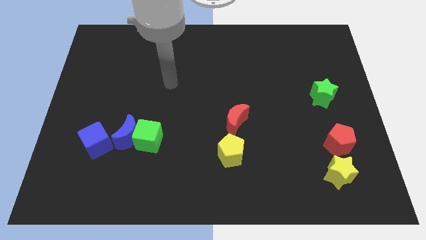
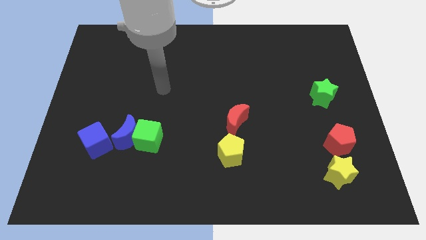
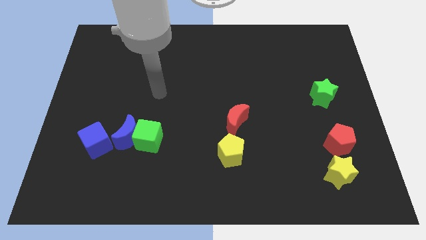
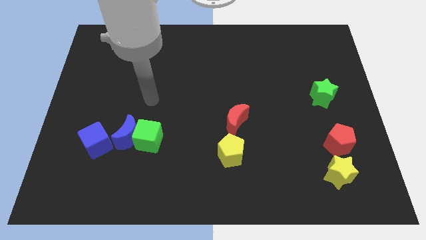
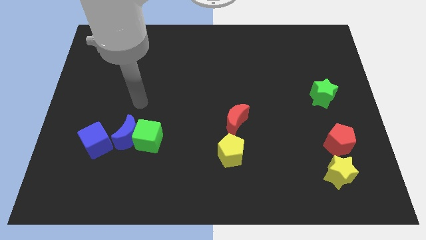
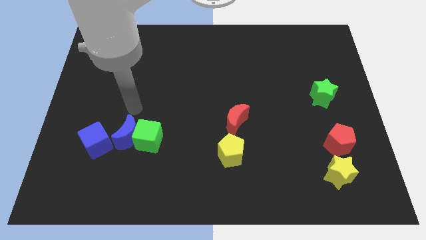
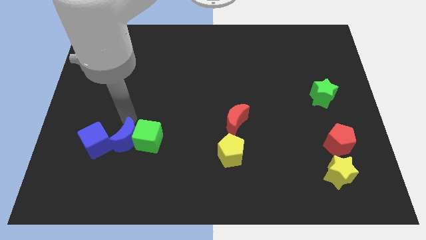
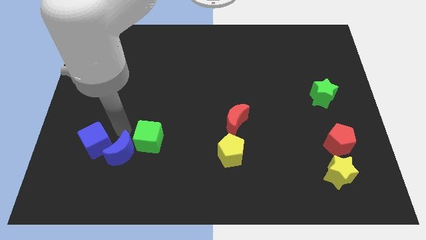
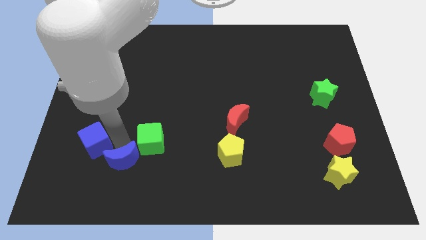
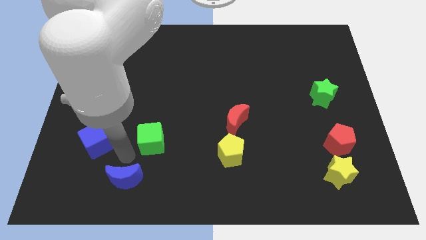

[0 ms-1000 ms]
move the green cube away from the blue moon

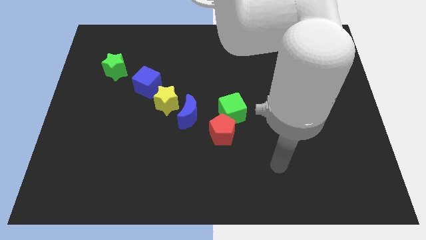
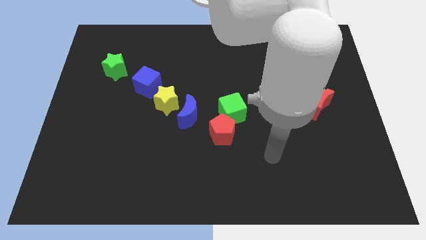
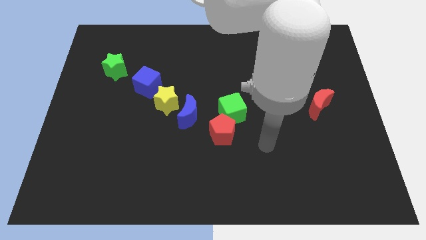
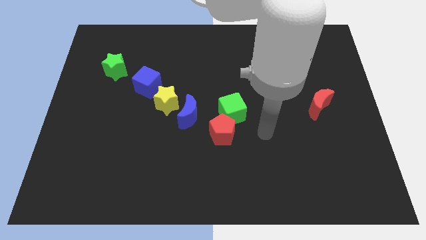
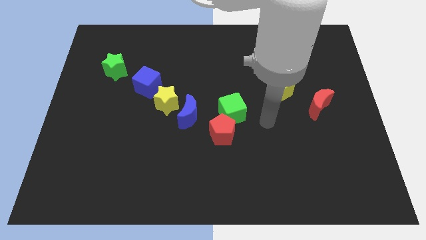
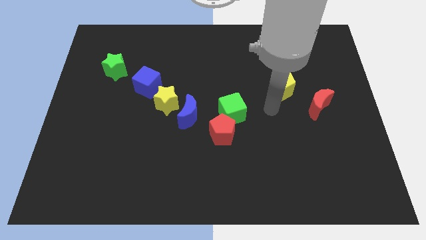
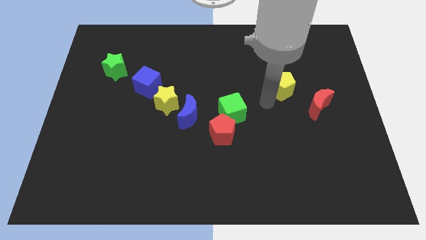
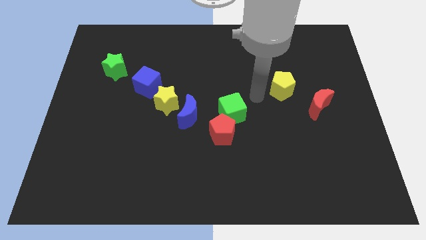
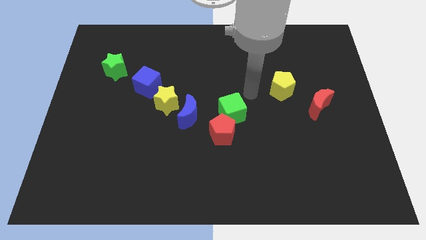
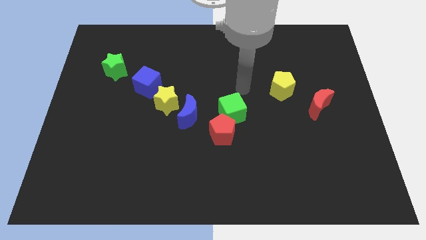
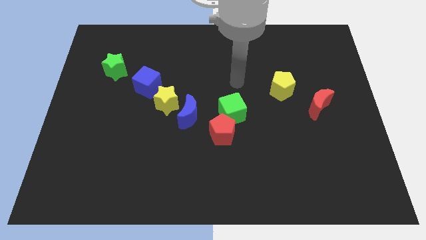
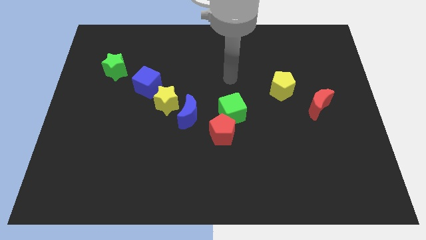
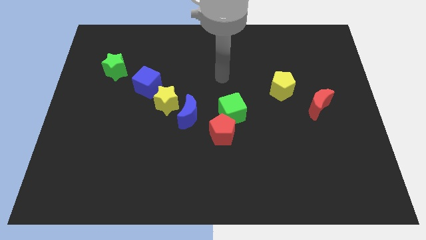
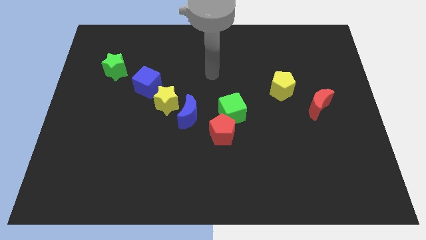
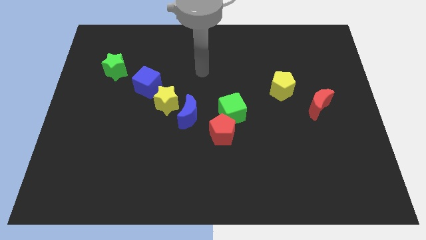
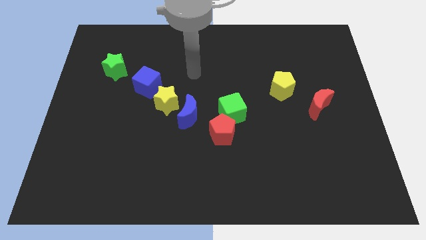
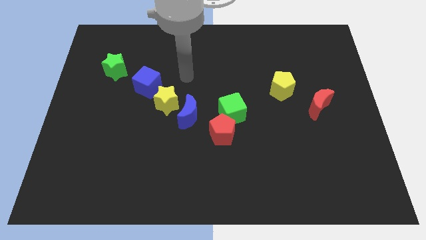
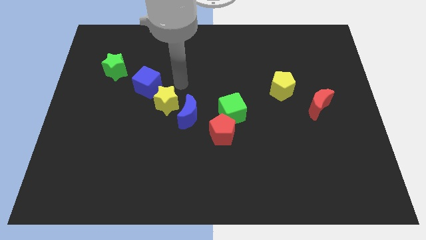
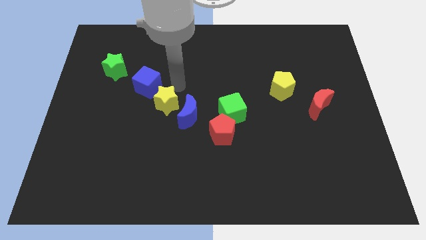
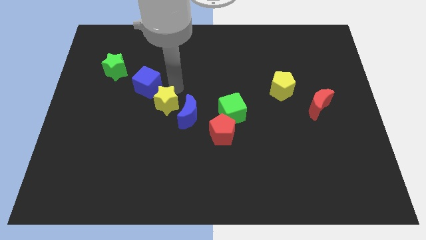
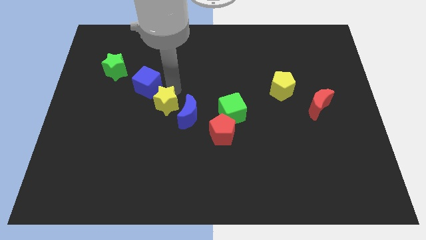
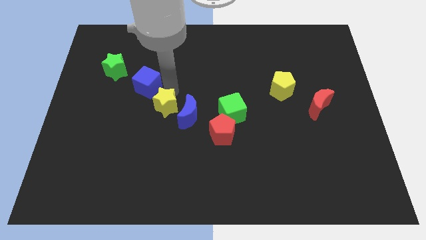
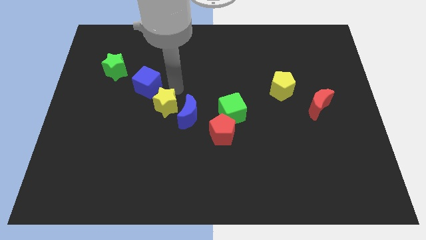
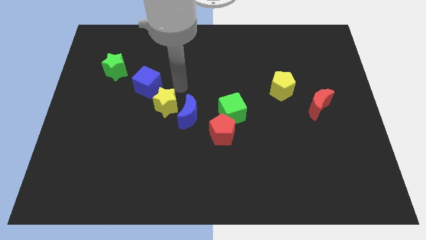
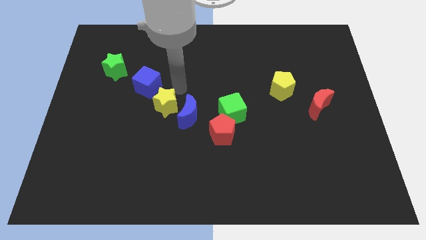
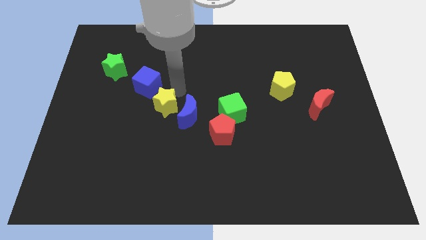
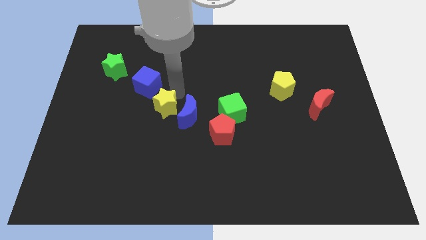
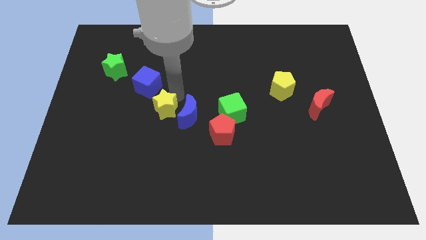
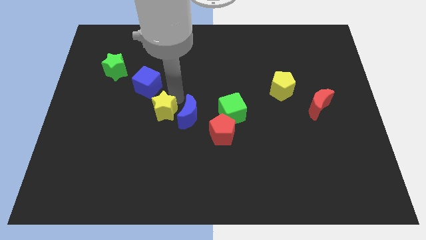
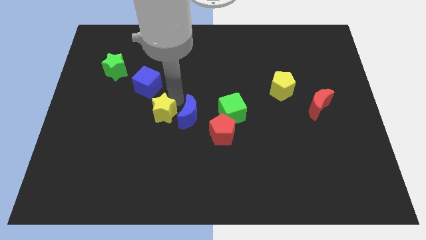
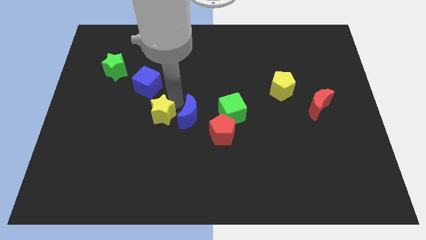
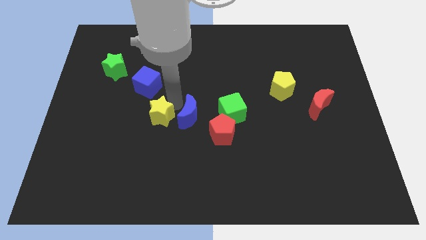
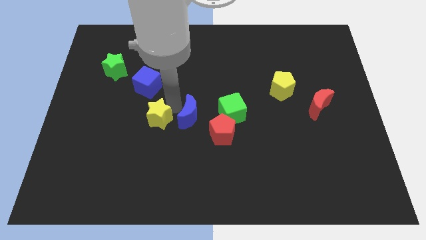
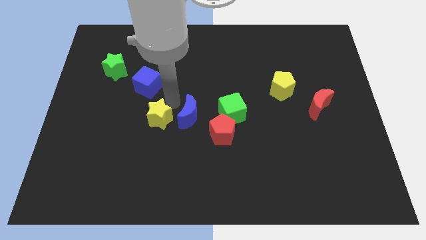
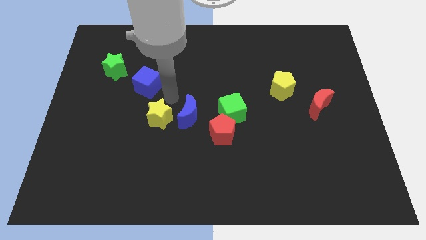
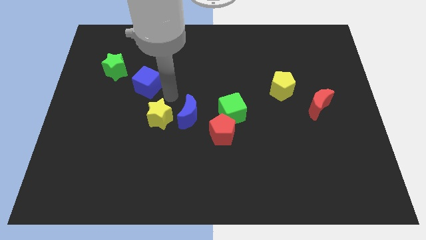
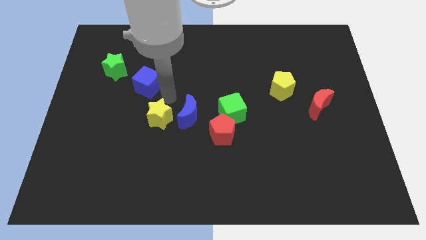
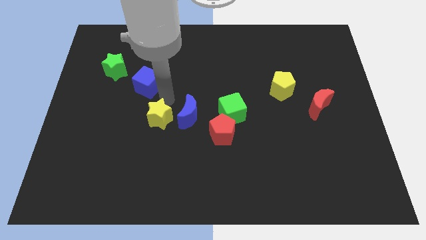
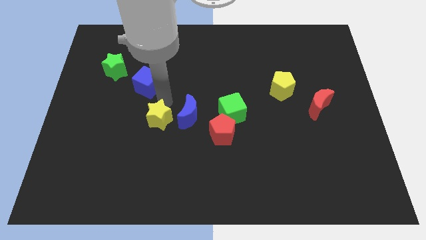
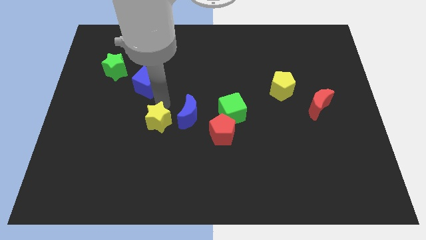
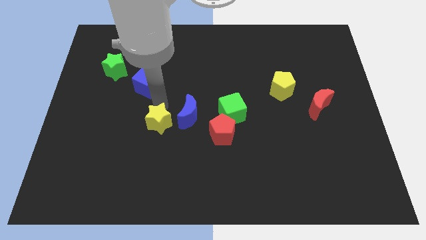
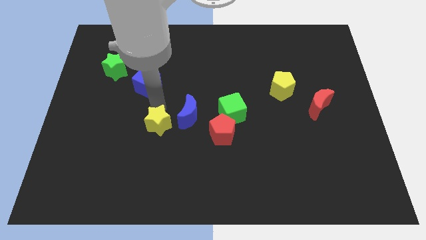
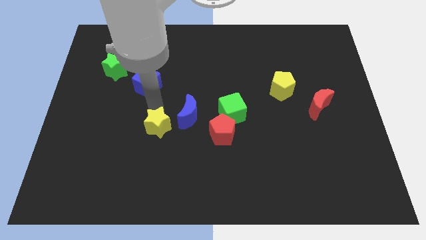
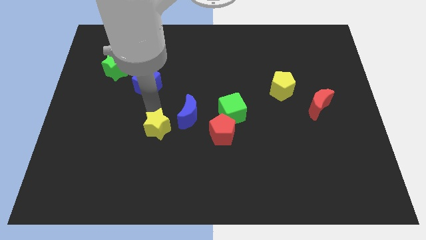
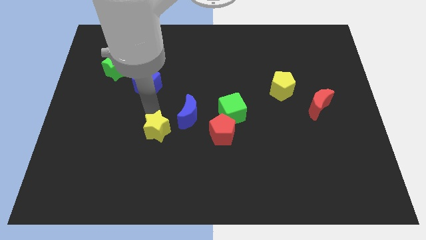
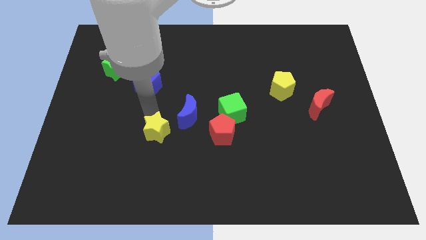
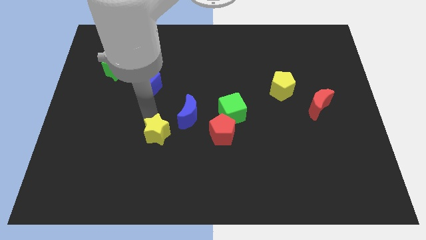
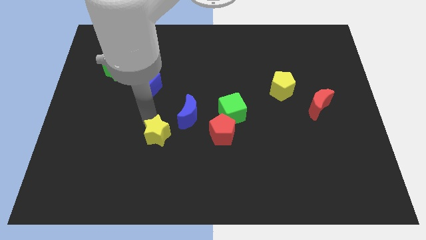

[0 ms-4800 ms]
pull the yellow star apart from the blue moon and blue cube

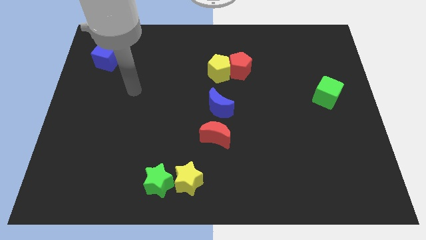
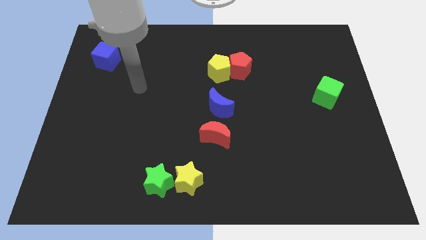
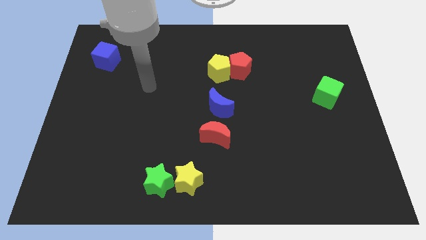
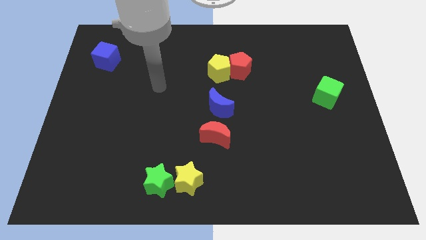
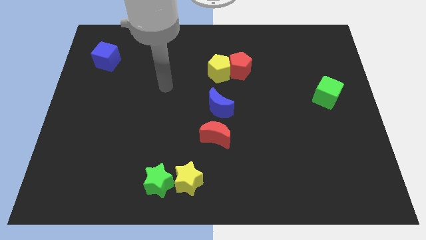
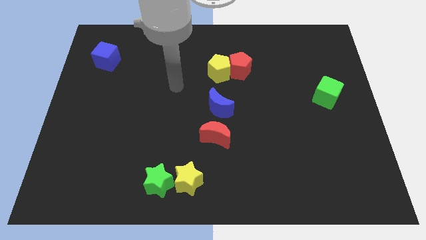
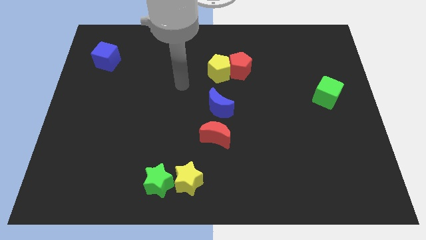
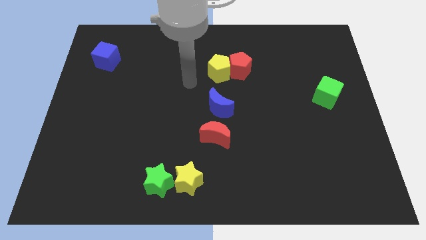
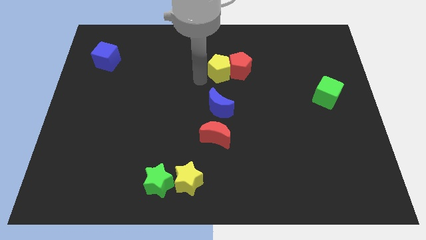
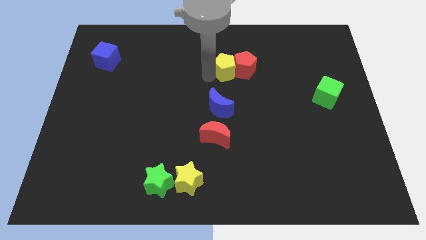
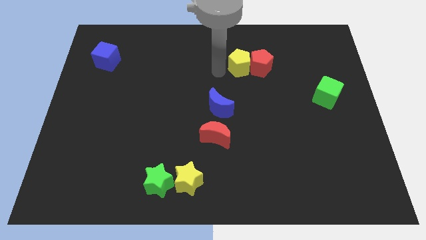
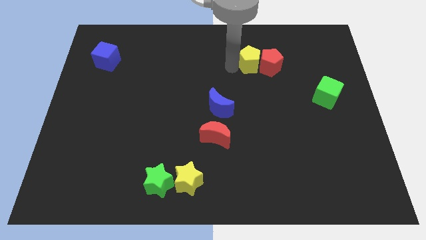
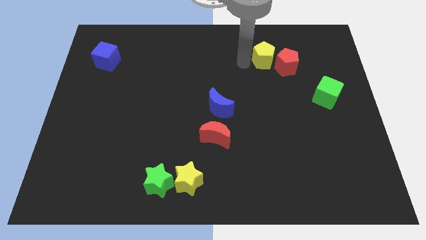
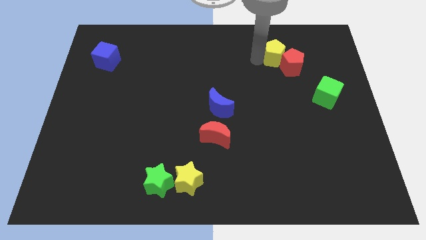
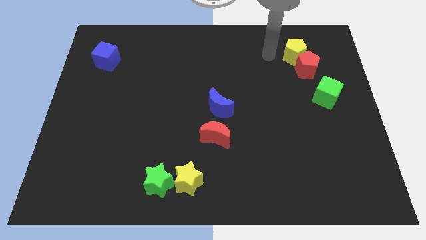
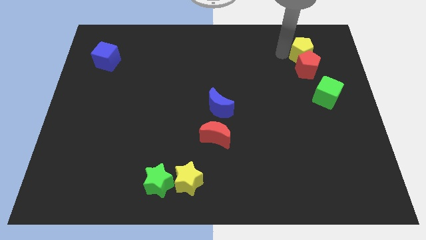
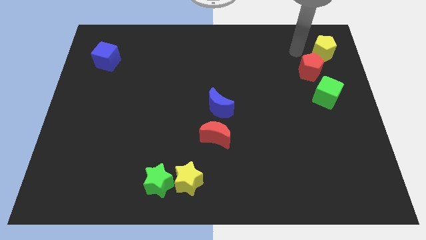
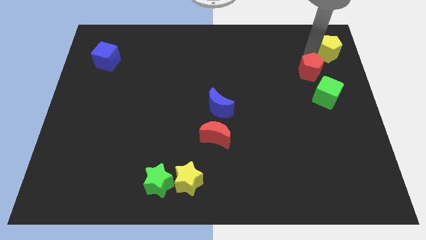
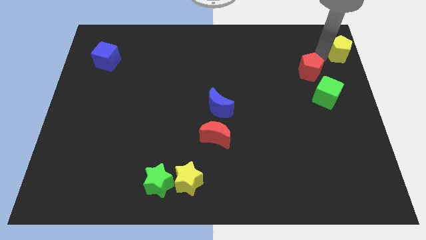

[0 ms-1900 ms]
move the red pentagon away from the yellow pentagon

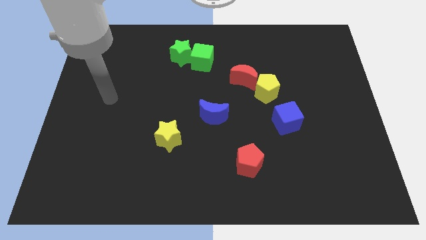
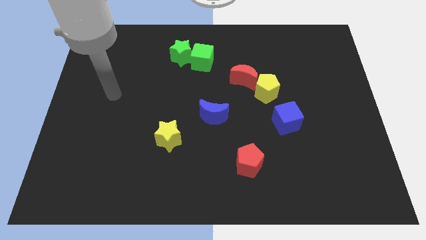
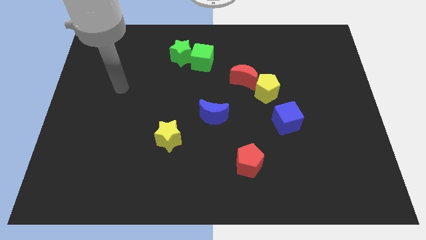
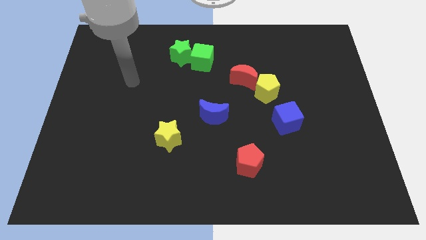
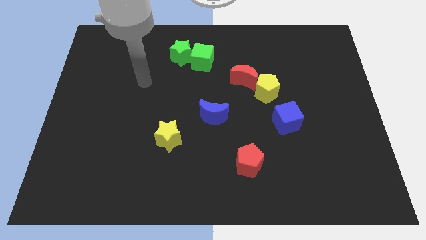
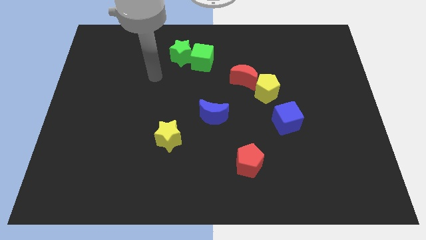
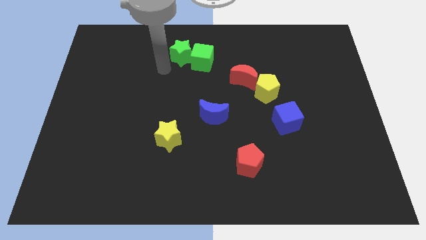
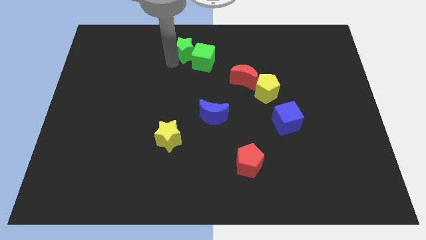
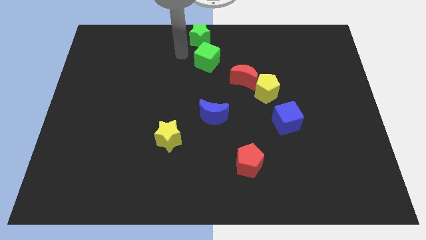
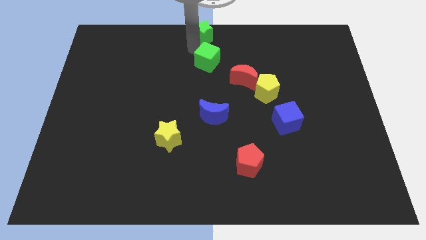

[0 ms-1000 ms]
pull the green cube apart from the green star

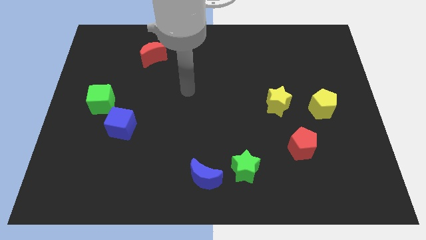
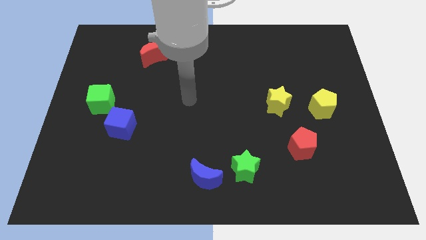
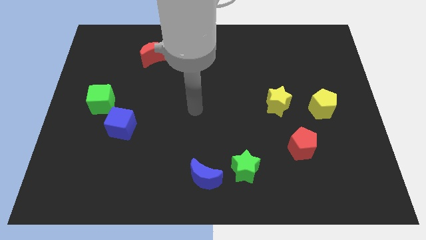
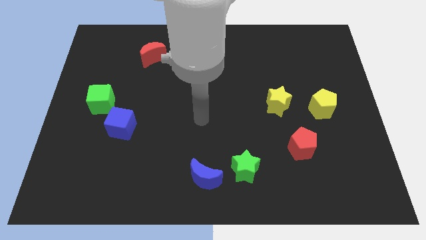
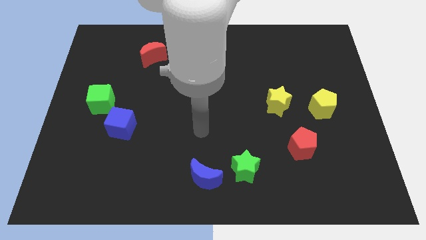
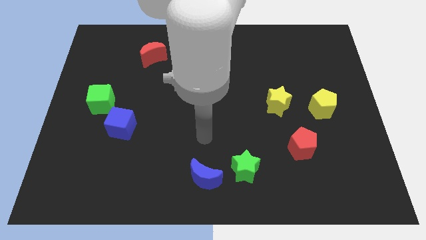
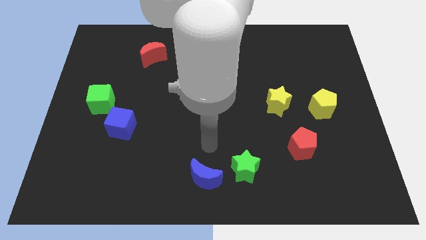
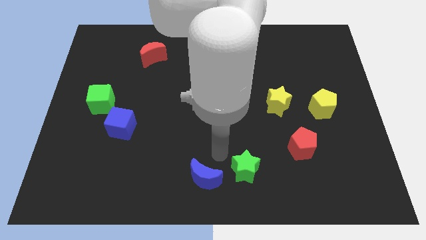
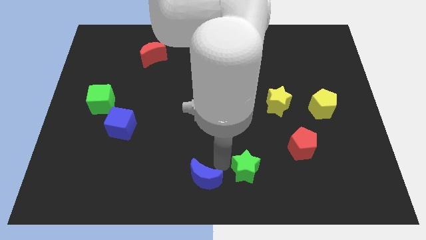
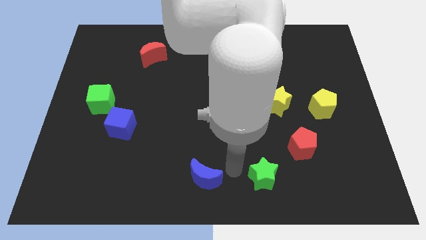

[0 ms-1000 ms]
separate the blue moon from the green star
